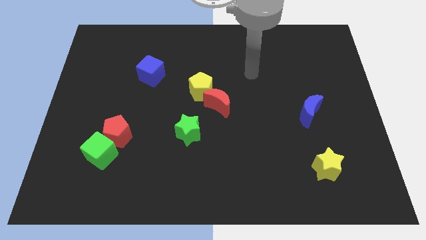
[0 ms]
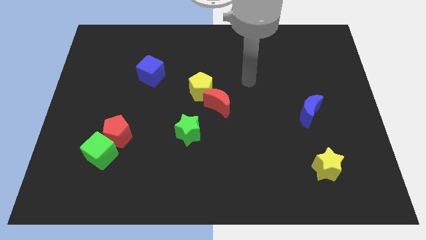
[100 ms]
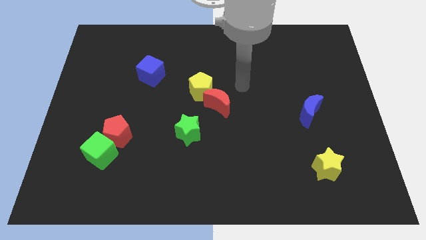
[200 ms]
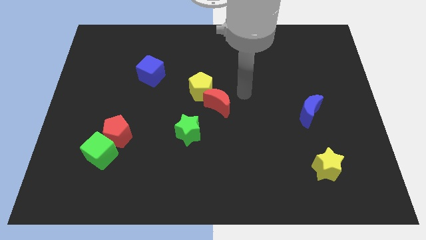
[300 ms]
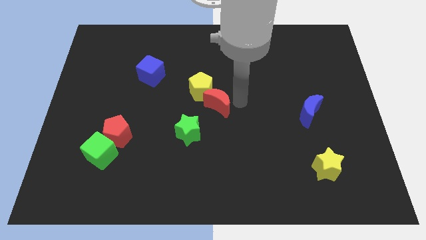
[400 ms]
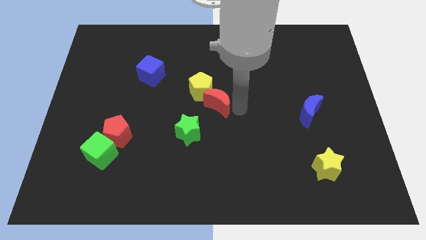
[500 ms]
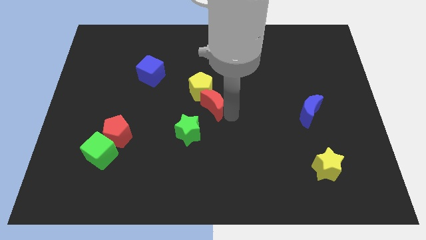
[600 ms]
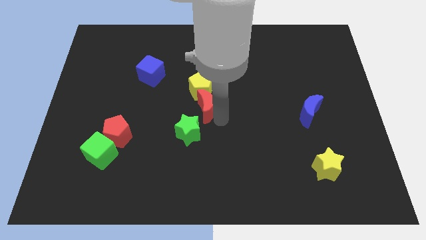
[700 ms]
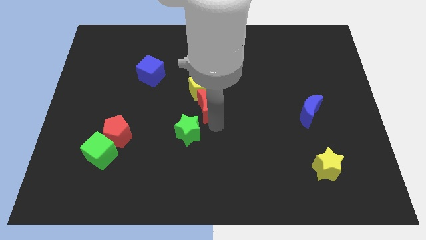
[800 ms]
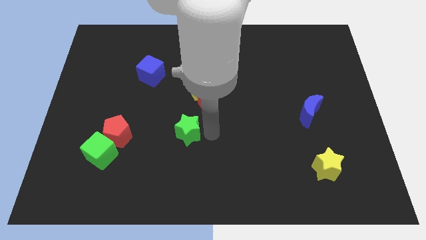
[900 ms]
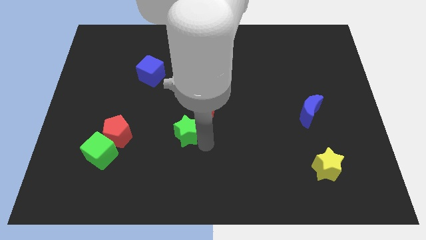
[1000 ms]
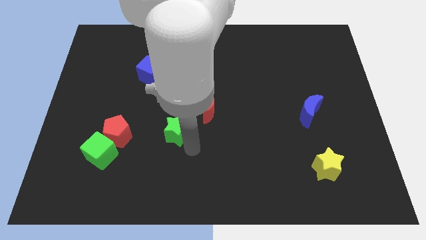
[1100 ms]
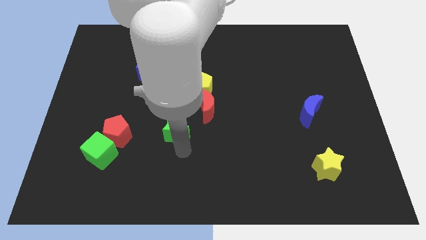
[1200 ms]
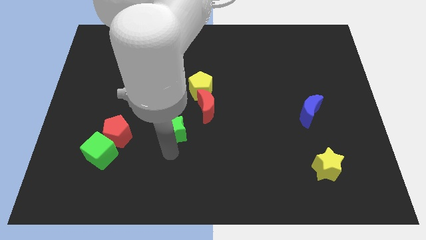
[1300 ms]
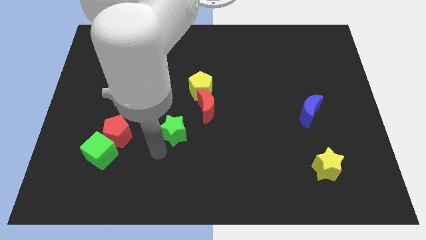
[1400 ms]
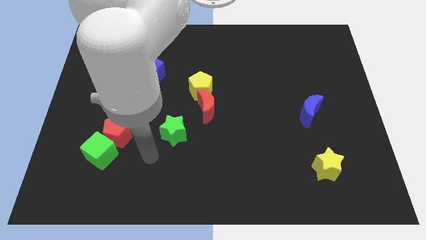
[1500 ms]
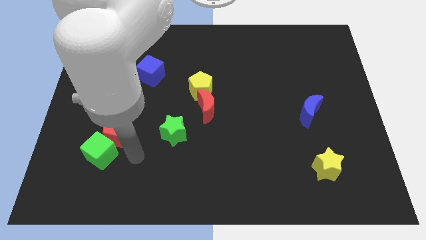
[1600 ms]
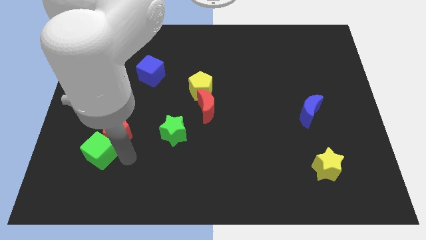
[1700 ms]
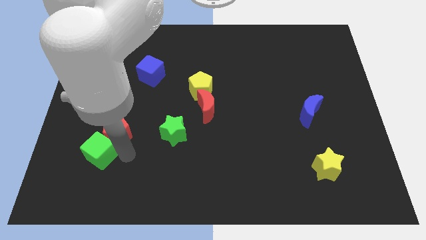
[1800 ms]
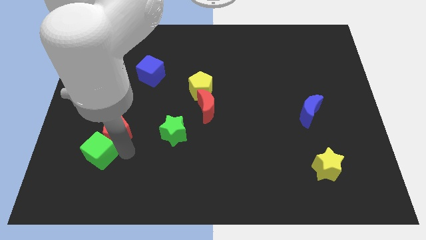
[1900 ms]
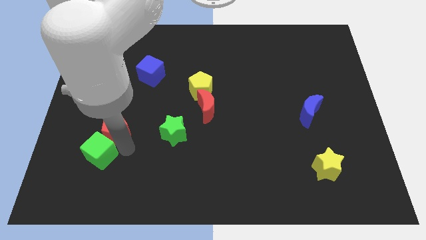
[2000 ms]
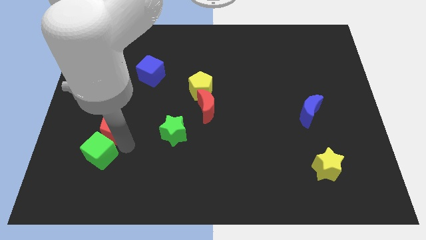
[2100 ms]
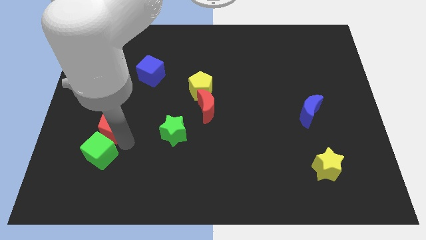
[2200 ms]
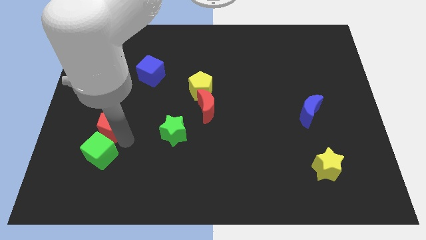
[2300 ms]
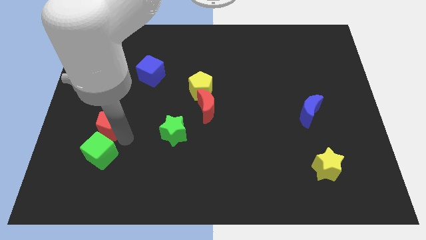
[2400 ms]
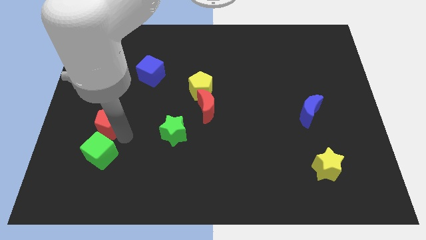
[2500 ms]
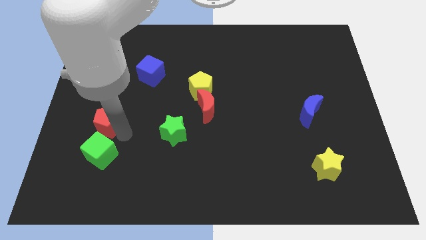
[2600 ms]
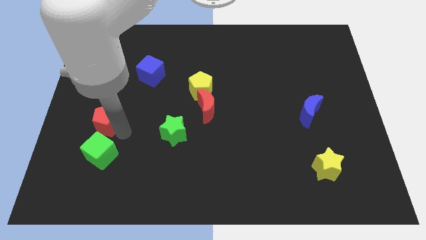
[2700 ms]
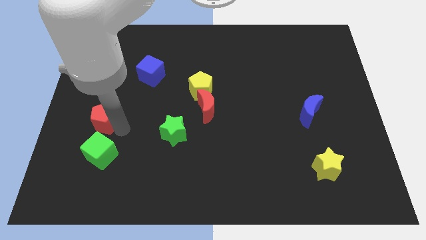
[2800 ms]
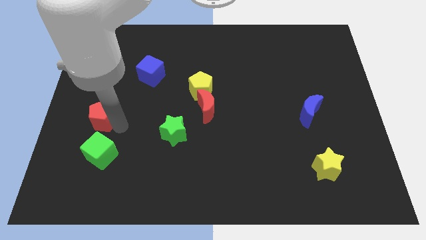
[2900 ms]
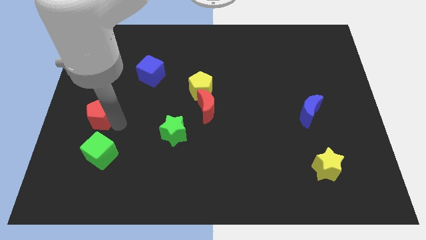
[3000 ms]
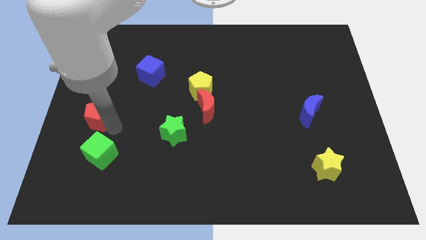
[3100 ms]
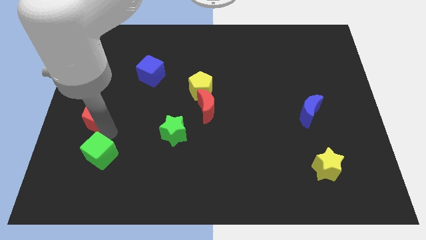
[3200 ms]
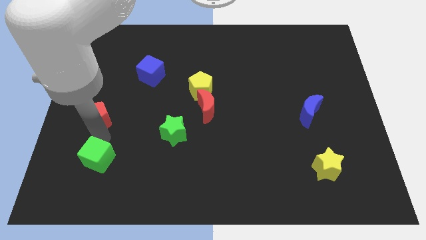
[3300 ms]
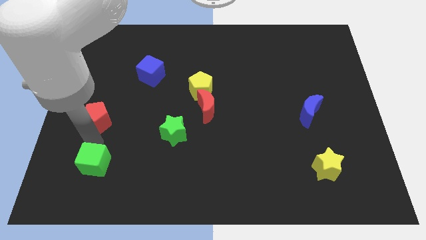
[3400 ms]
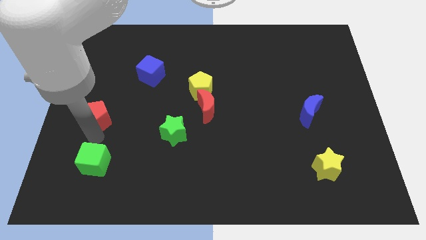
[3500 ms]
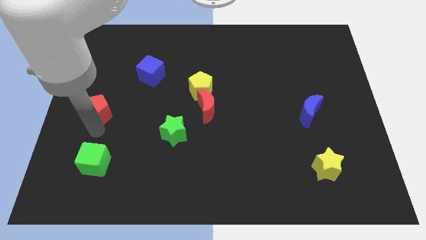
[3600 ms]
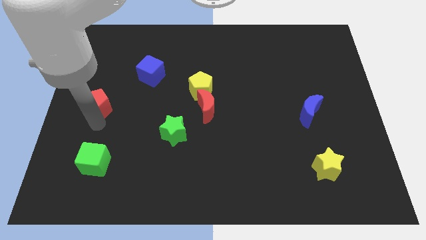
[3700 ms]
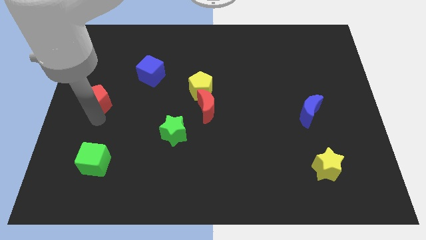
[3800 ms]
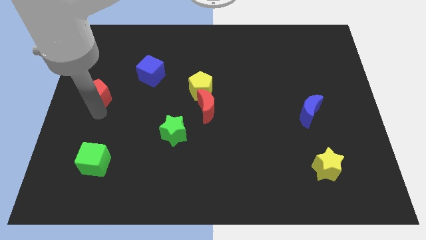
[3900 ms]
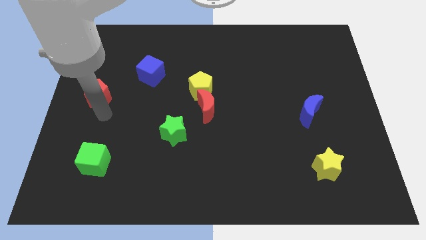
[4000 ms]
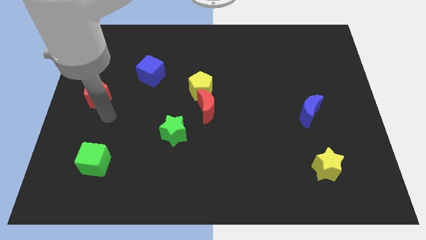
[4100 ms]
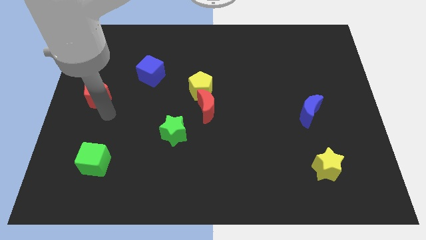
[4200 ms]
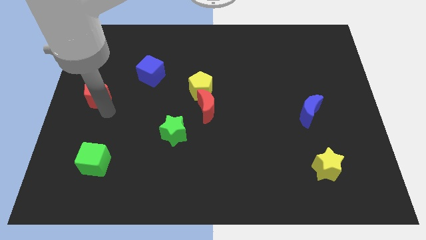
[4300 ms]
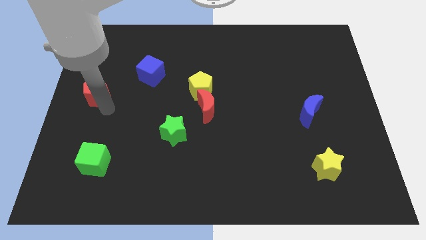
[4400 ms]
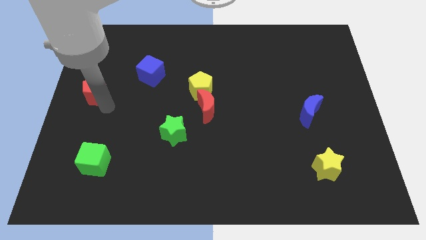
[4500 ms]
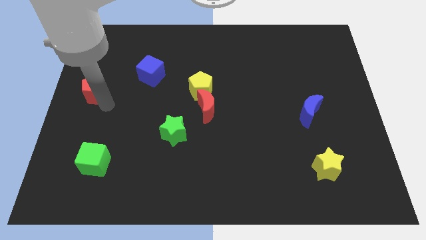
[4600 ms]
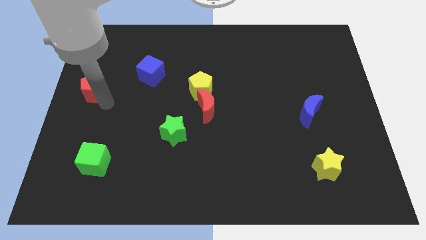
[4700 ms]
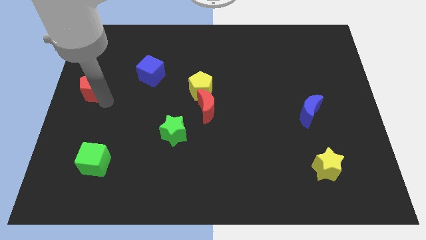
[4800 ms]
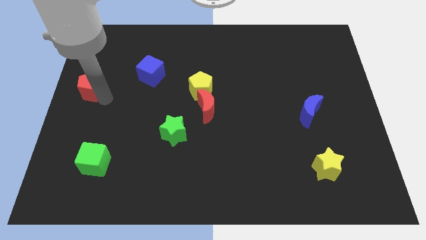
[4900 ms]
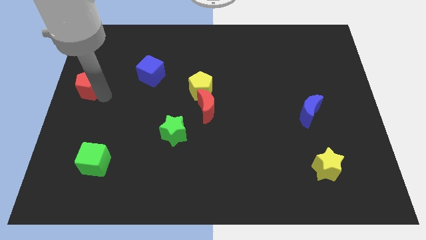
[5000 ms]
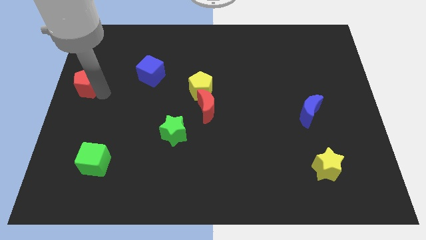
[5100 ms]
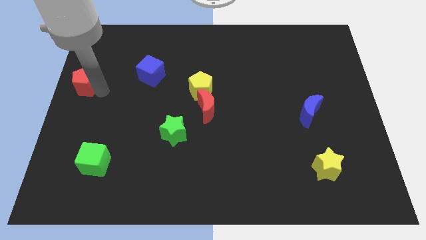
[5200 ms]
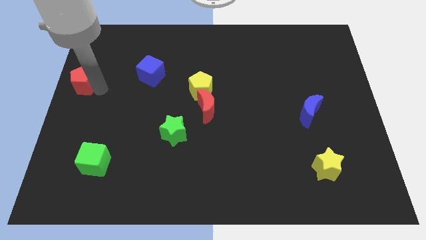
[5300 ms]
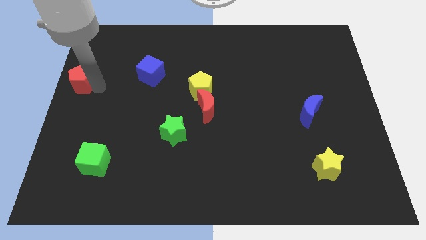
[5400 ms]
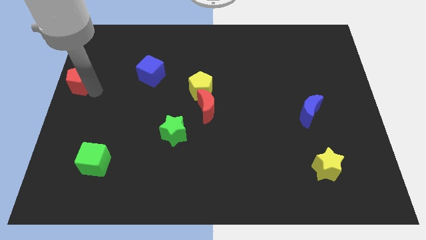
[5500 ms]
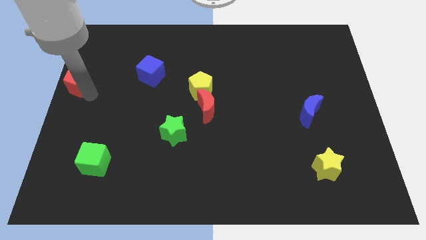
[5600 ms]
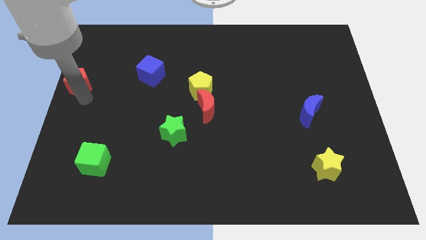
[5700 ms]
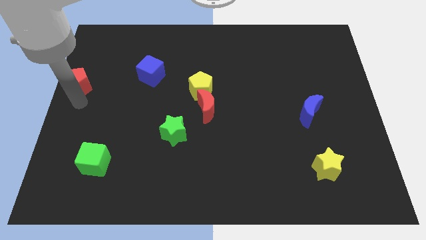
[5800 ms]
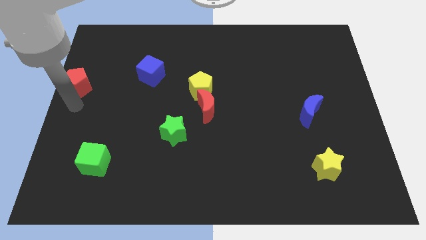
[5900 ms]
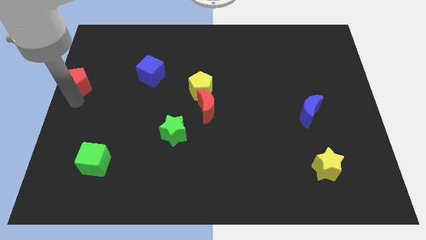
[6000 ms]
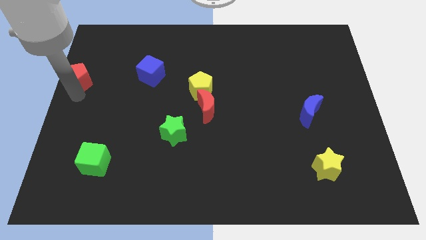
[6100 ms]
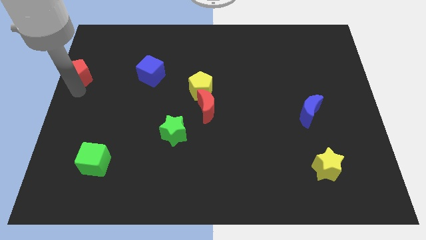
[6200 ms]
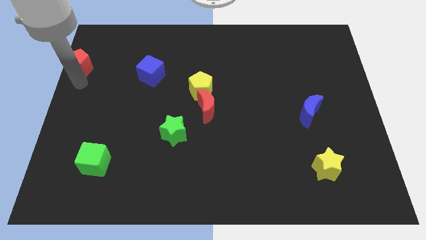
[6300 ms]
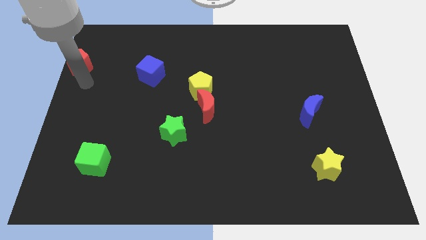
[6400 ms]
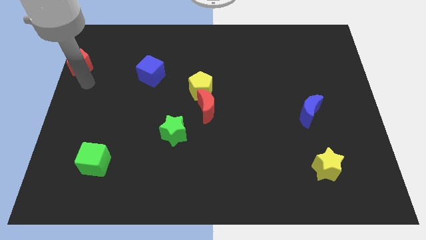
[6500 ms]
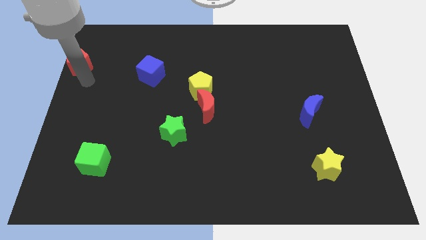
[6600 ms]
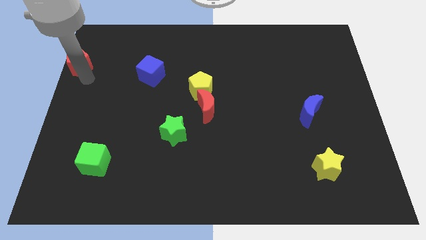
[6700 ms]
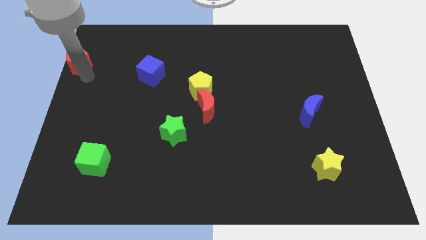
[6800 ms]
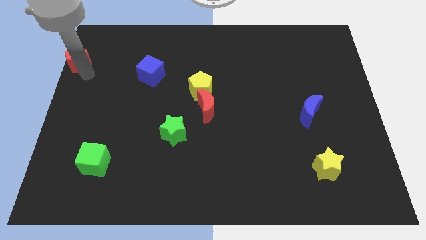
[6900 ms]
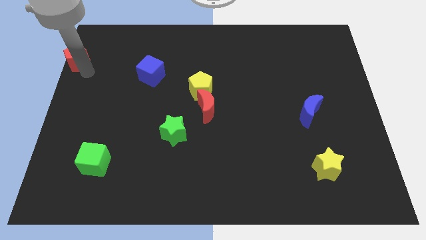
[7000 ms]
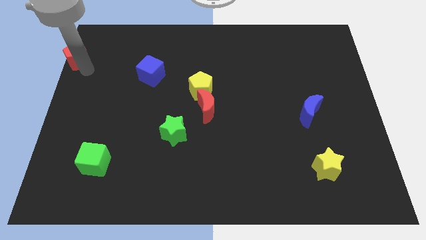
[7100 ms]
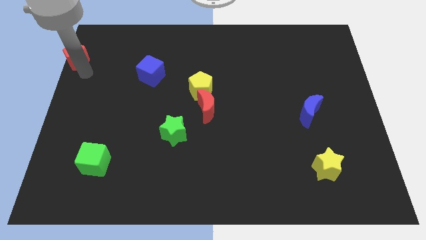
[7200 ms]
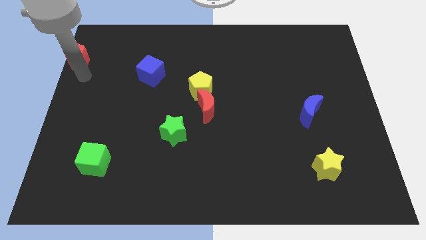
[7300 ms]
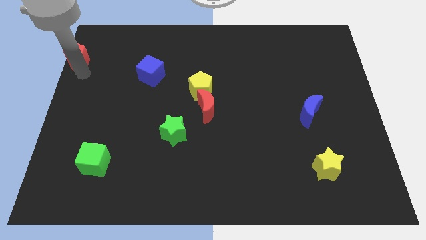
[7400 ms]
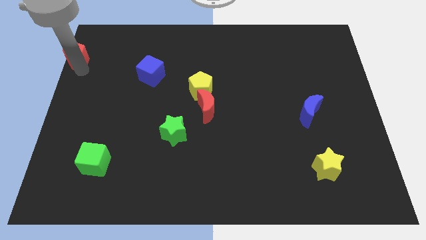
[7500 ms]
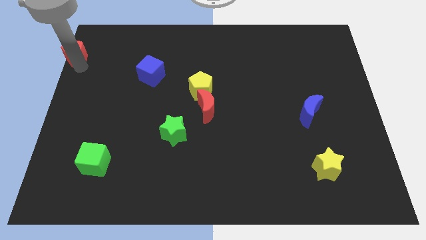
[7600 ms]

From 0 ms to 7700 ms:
put the red pentagon to the upper left corner
